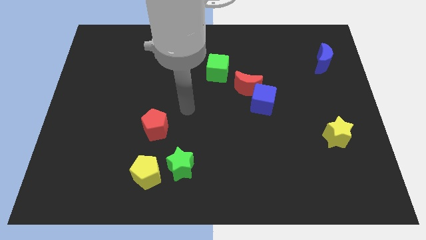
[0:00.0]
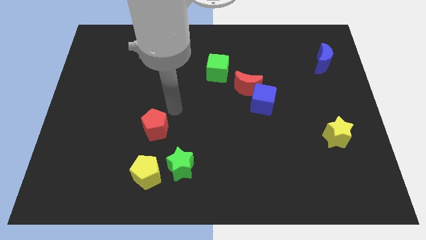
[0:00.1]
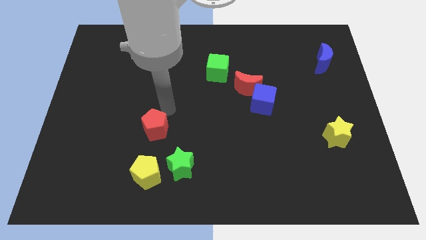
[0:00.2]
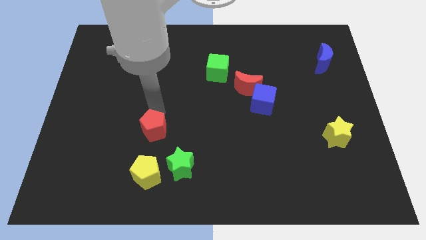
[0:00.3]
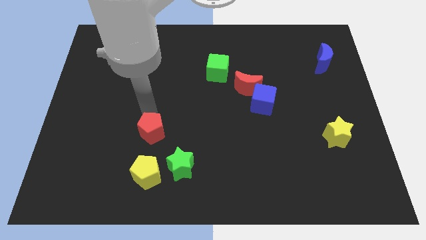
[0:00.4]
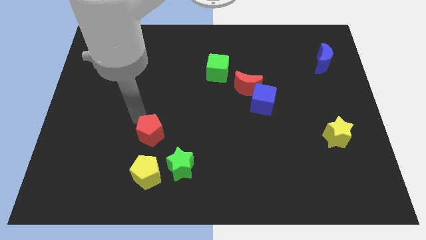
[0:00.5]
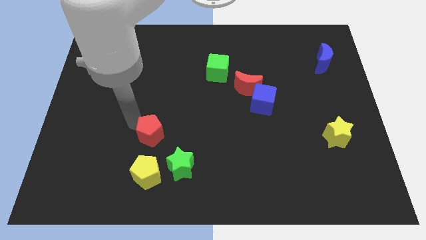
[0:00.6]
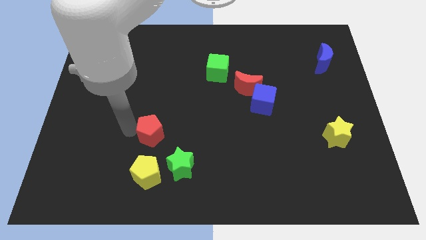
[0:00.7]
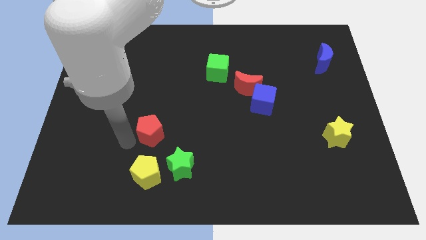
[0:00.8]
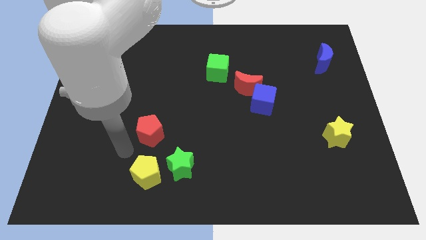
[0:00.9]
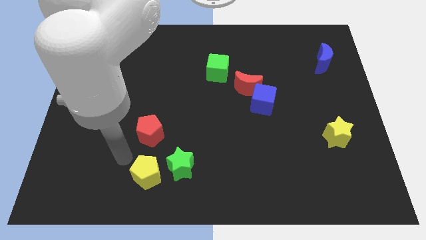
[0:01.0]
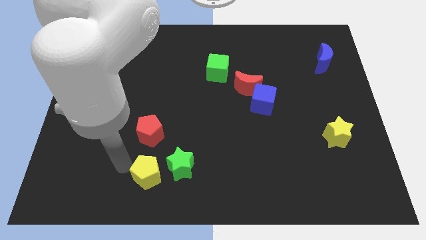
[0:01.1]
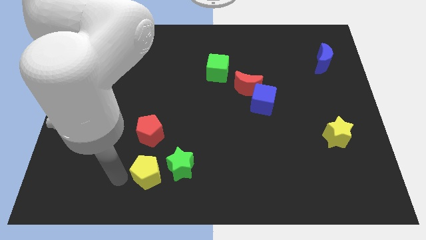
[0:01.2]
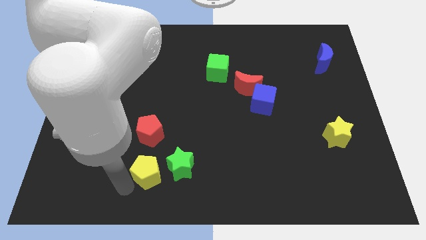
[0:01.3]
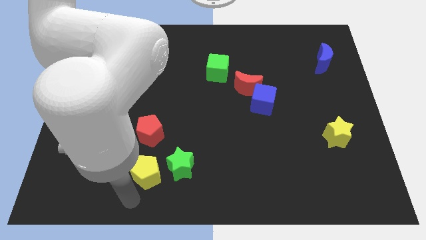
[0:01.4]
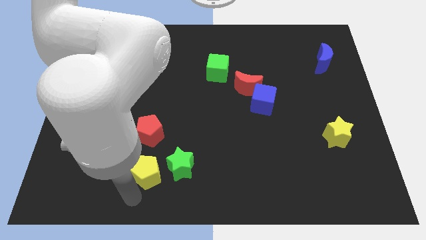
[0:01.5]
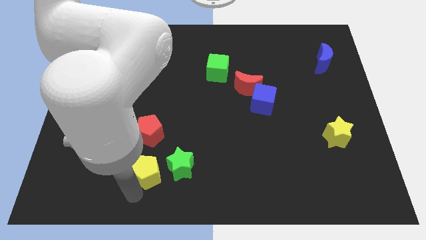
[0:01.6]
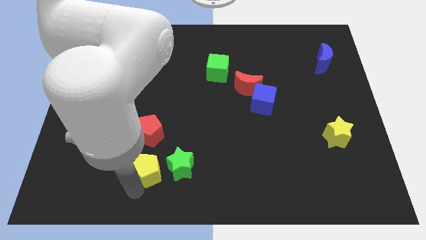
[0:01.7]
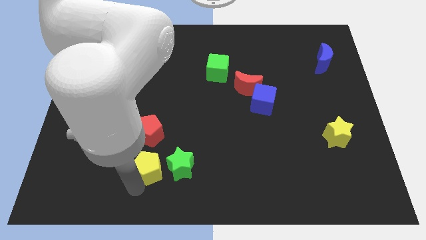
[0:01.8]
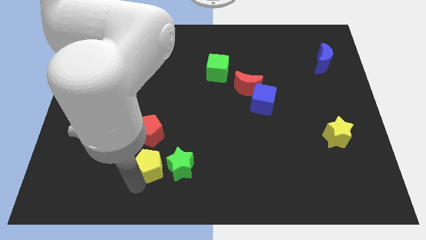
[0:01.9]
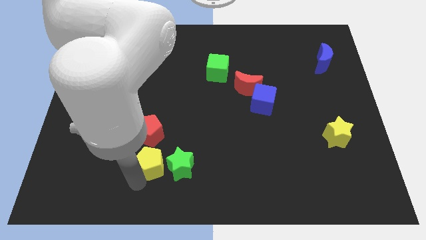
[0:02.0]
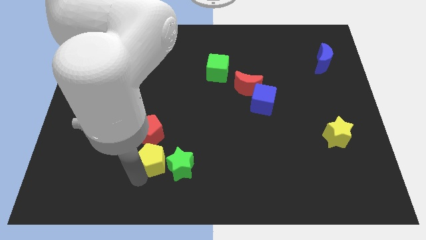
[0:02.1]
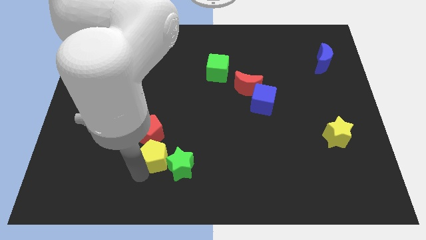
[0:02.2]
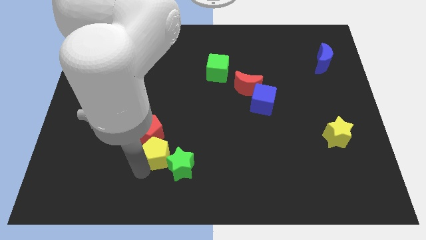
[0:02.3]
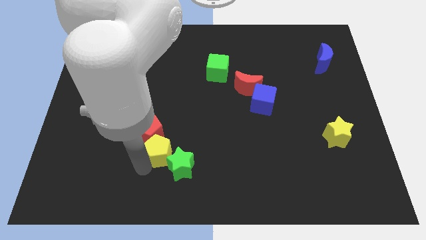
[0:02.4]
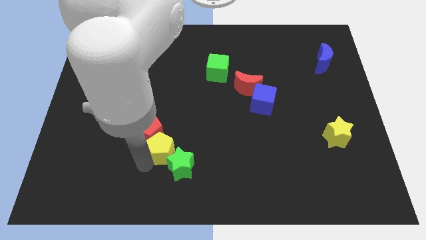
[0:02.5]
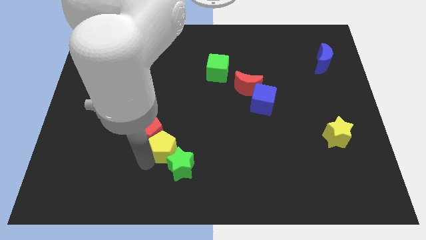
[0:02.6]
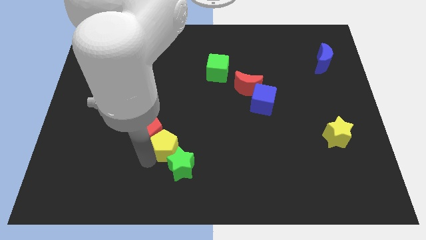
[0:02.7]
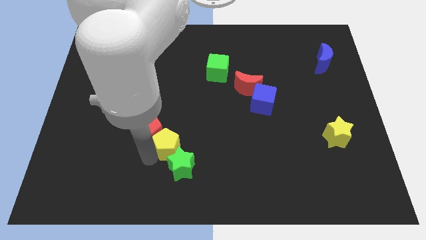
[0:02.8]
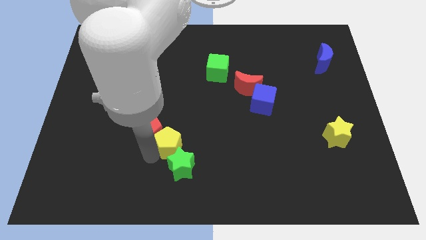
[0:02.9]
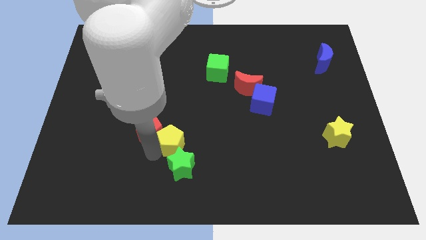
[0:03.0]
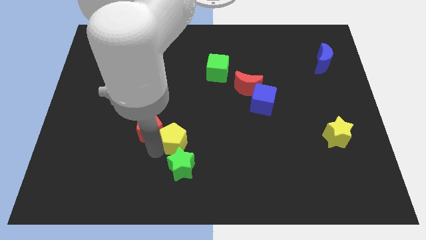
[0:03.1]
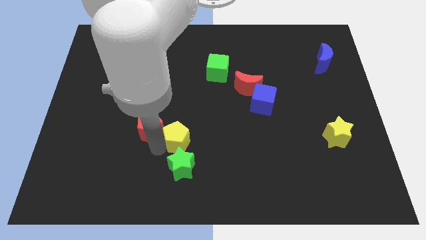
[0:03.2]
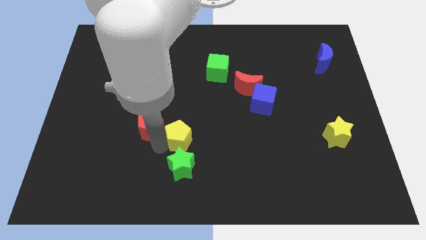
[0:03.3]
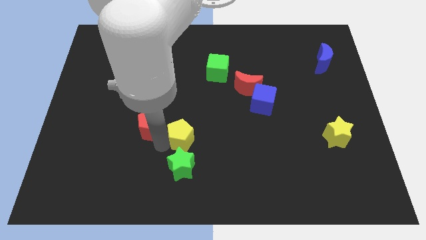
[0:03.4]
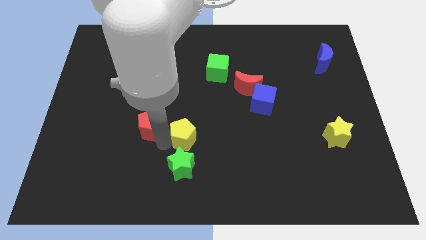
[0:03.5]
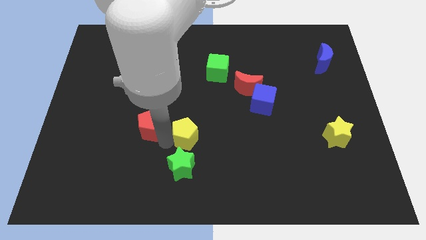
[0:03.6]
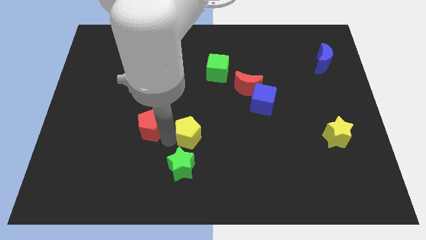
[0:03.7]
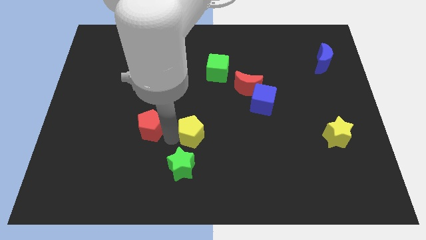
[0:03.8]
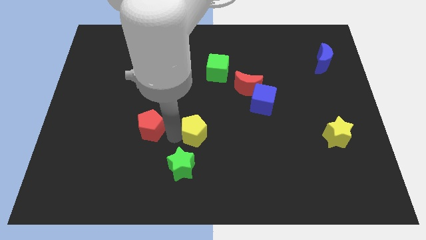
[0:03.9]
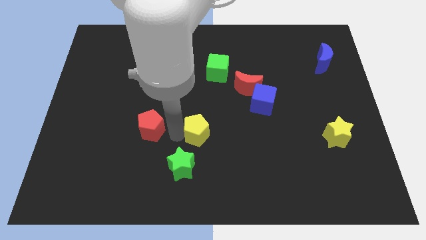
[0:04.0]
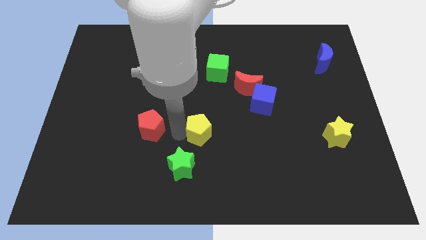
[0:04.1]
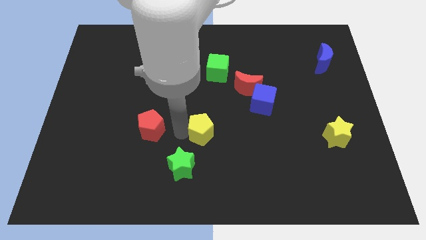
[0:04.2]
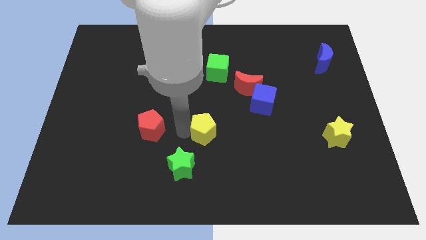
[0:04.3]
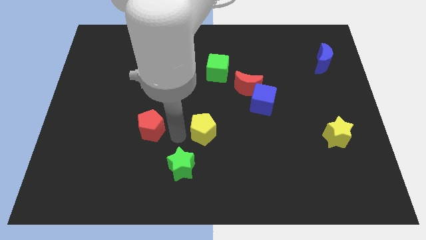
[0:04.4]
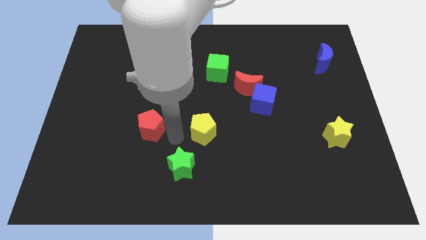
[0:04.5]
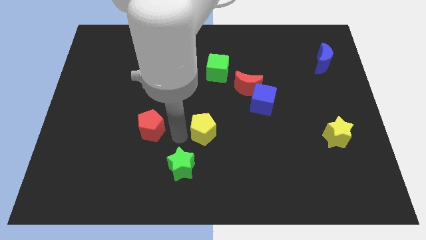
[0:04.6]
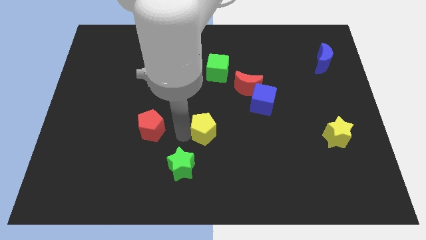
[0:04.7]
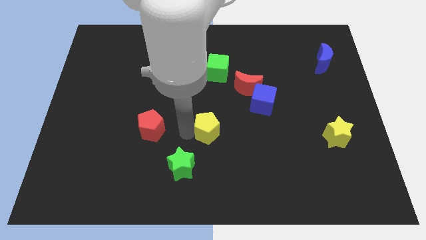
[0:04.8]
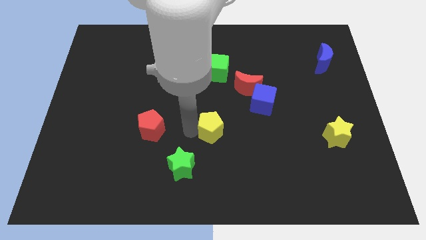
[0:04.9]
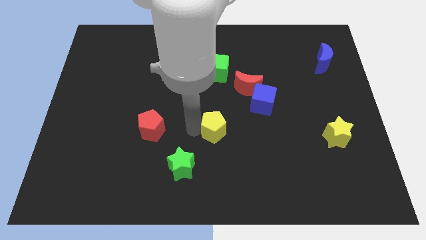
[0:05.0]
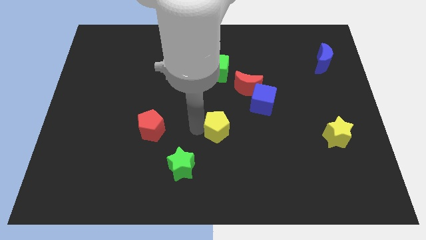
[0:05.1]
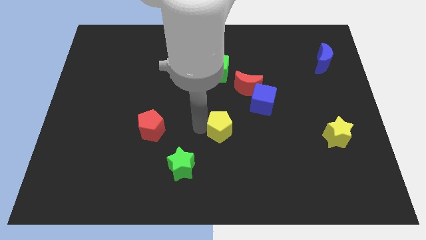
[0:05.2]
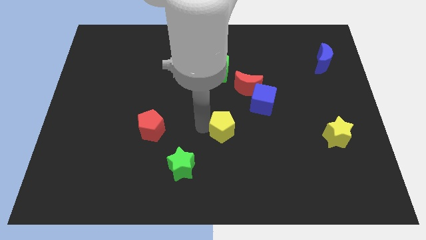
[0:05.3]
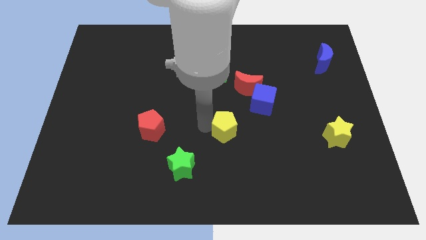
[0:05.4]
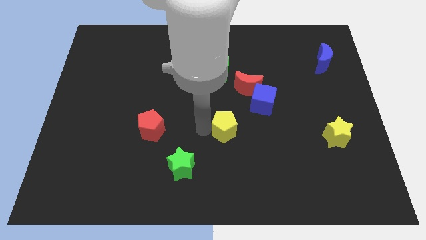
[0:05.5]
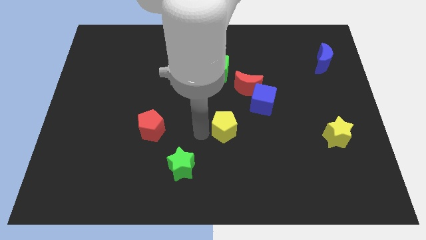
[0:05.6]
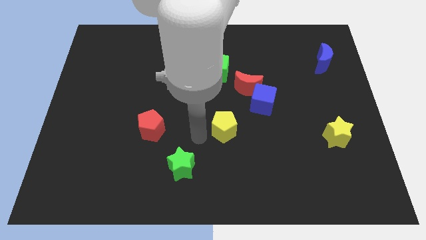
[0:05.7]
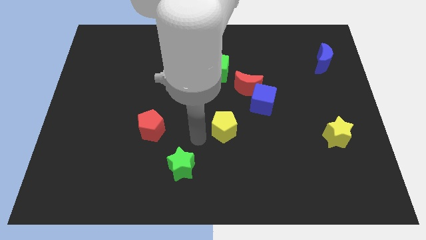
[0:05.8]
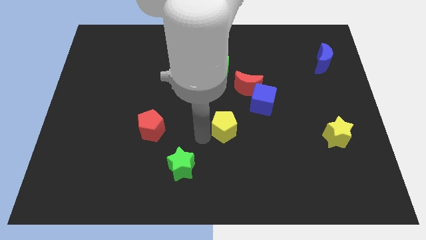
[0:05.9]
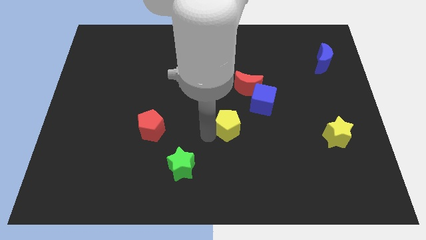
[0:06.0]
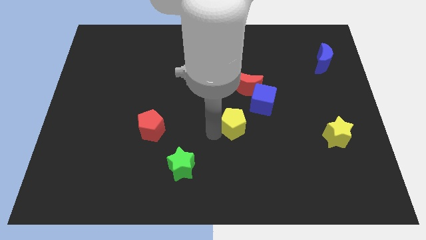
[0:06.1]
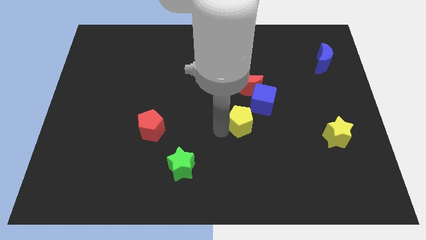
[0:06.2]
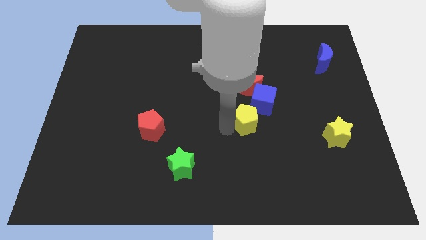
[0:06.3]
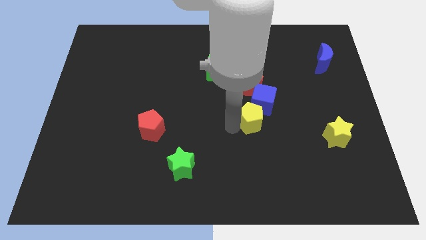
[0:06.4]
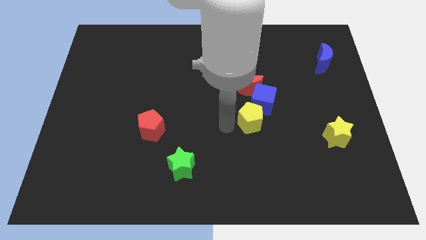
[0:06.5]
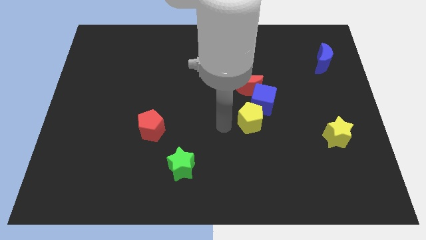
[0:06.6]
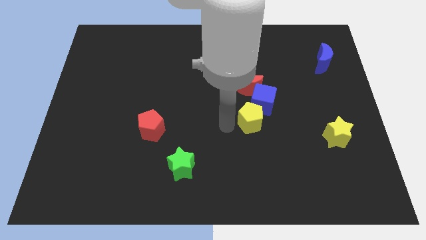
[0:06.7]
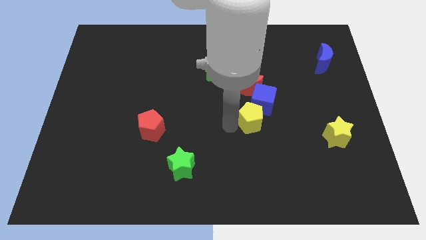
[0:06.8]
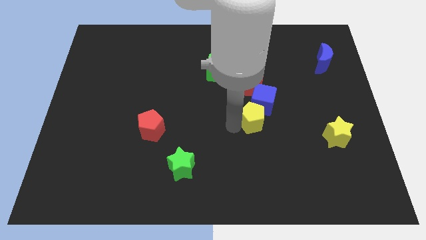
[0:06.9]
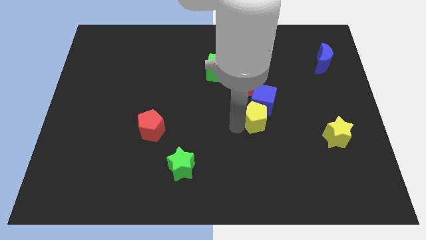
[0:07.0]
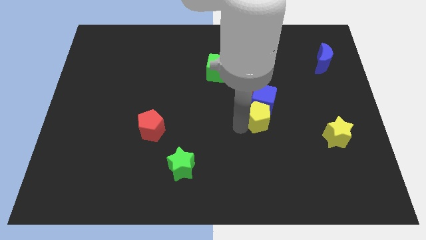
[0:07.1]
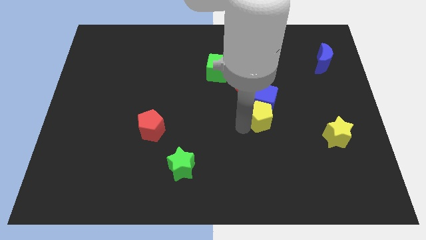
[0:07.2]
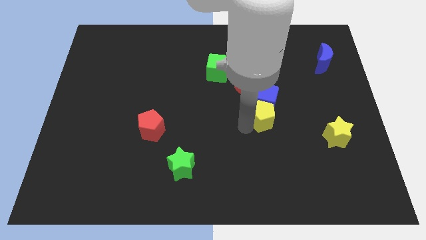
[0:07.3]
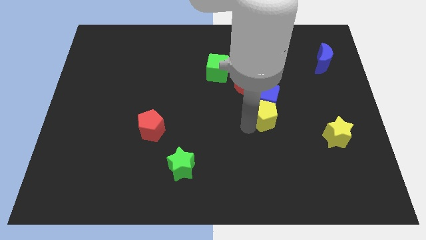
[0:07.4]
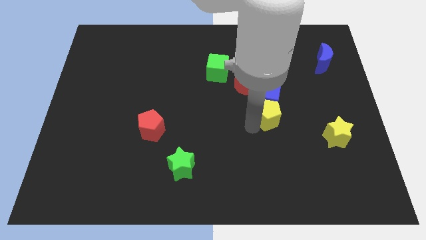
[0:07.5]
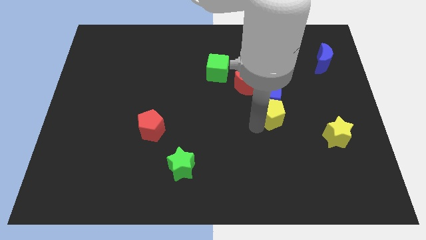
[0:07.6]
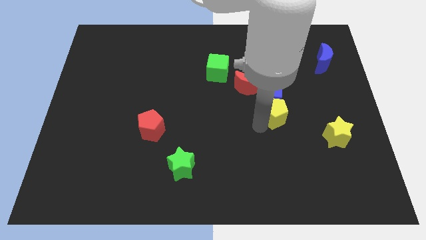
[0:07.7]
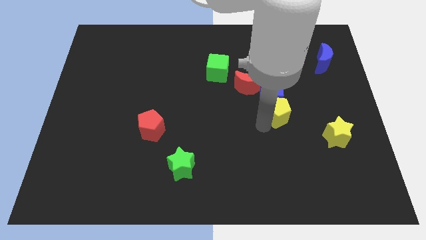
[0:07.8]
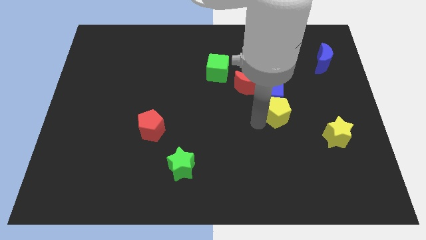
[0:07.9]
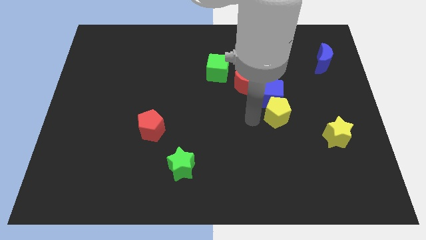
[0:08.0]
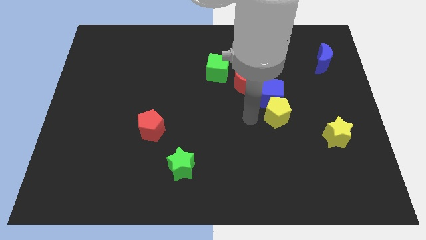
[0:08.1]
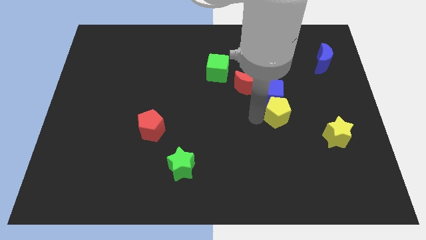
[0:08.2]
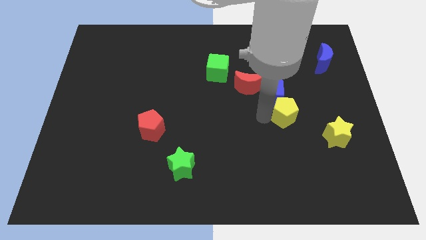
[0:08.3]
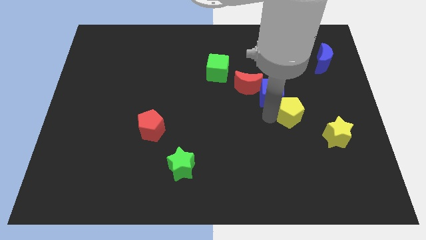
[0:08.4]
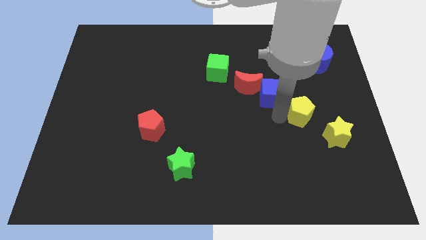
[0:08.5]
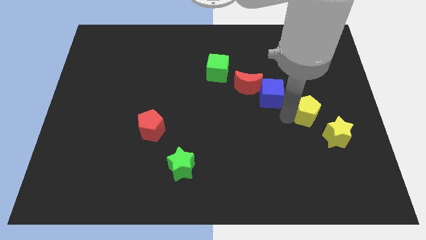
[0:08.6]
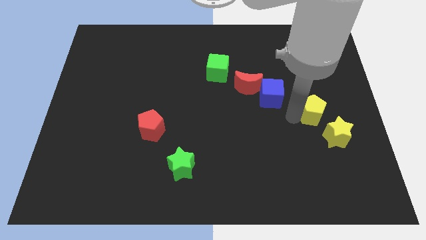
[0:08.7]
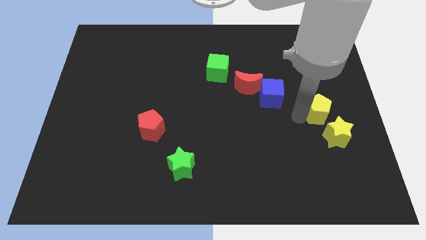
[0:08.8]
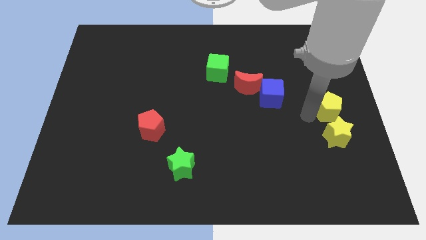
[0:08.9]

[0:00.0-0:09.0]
put the yellow pentagon to the right side of the board
